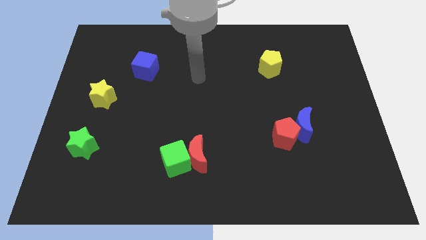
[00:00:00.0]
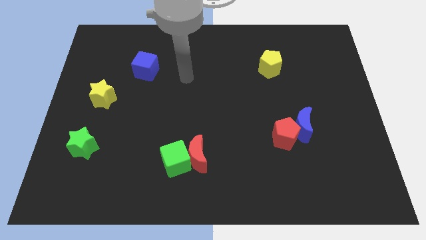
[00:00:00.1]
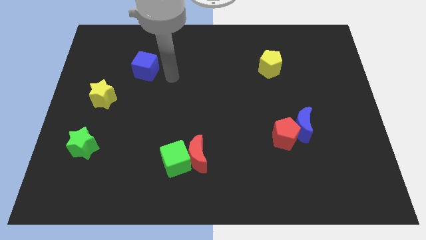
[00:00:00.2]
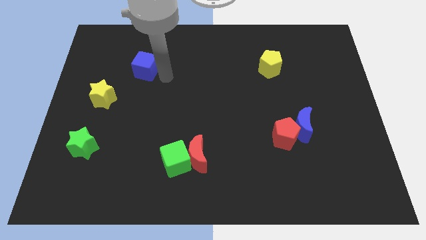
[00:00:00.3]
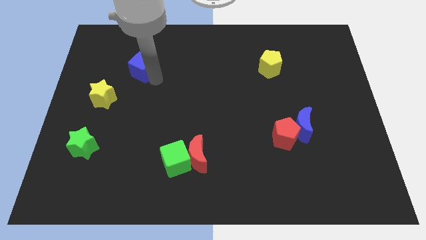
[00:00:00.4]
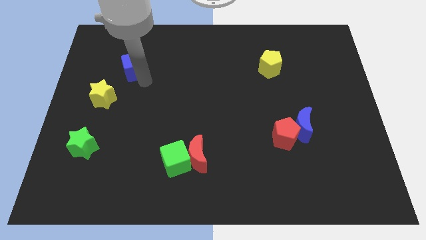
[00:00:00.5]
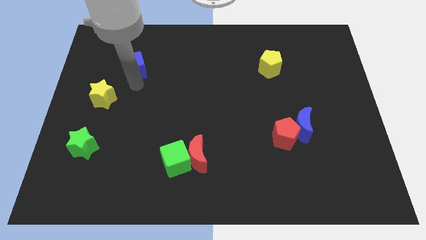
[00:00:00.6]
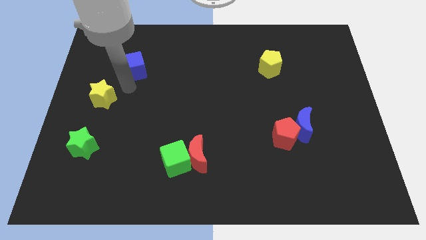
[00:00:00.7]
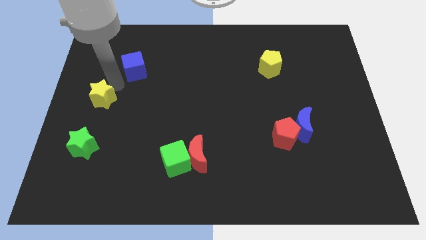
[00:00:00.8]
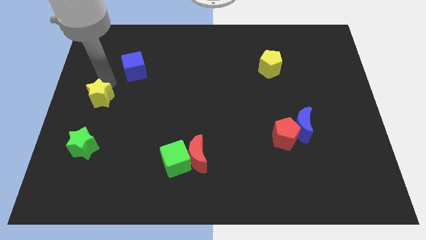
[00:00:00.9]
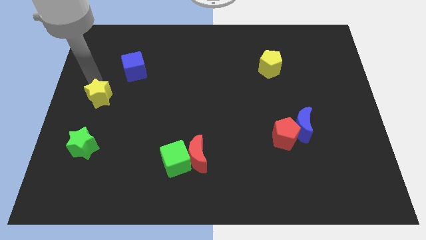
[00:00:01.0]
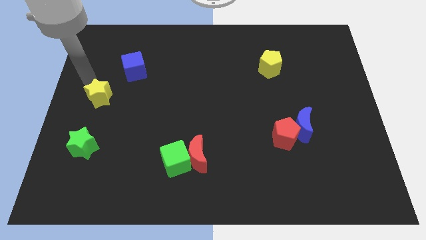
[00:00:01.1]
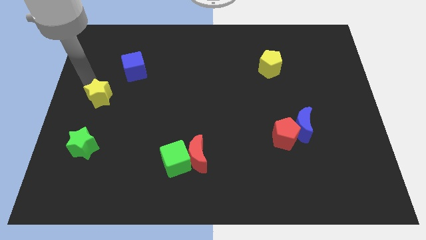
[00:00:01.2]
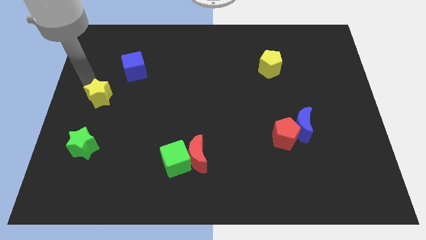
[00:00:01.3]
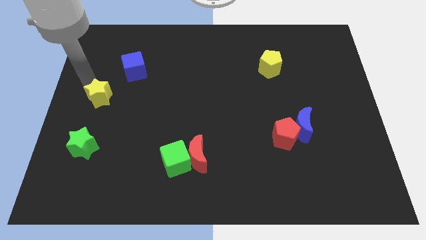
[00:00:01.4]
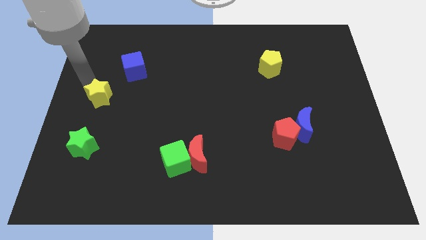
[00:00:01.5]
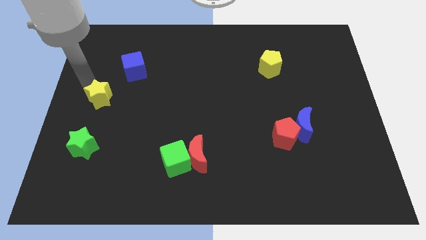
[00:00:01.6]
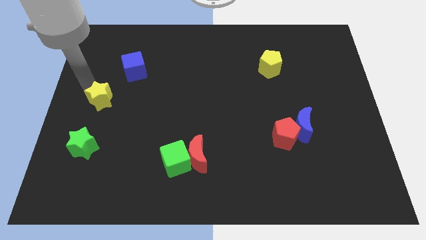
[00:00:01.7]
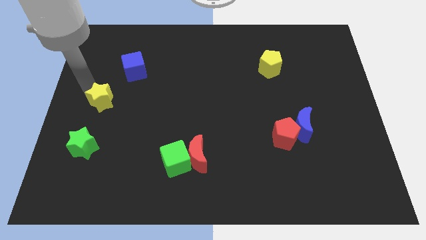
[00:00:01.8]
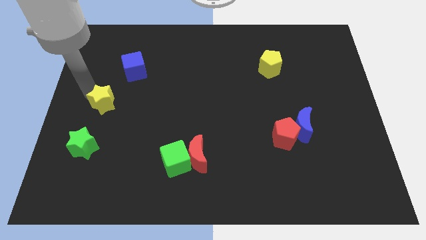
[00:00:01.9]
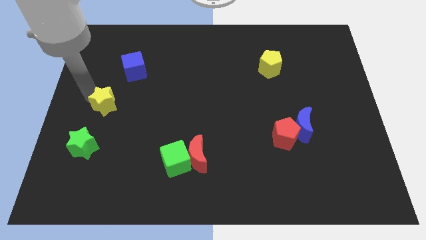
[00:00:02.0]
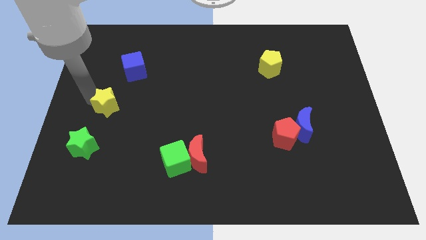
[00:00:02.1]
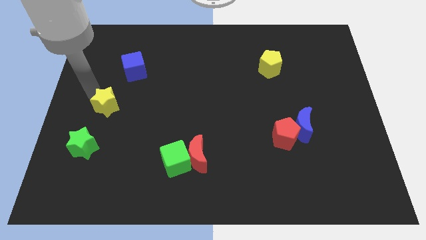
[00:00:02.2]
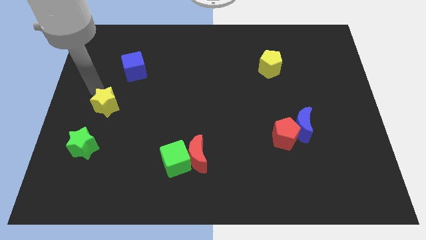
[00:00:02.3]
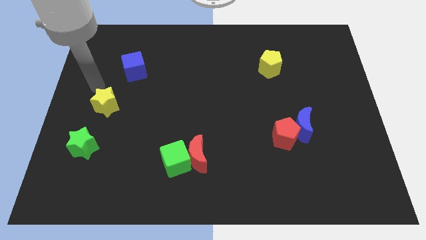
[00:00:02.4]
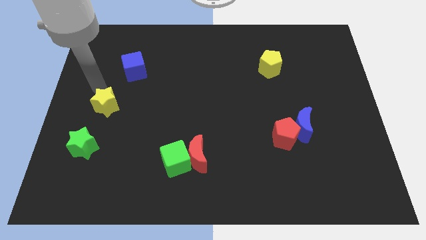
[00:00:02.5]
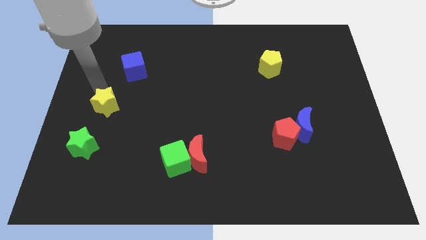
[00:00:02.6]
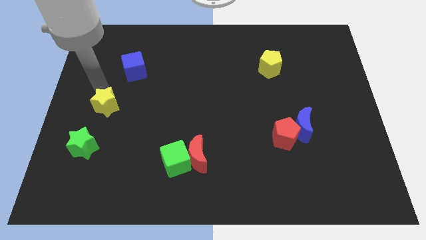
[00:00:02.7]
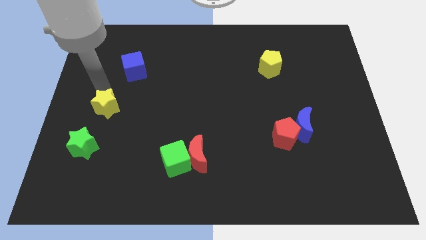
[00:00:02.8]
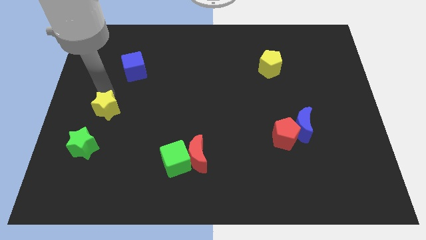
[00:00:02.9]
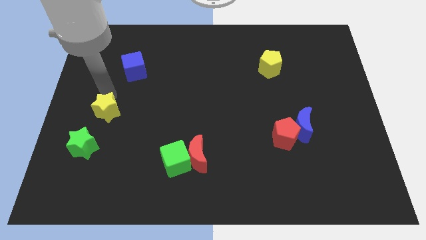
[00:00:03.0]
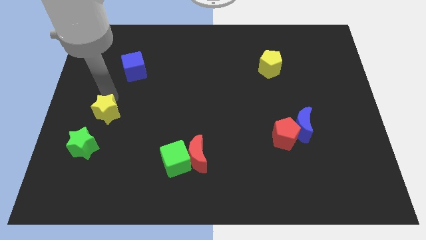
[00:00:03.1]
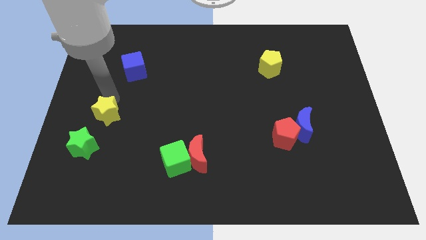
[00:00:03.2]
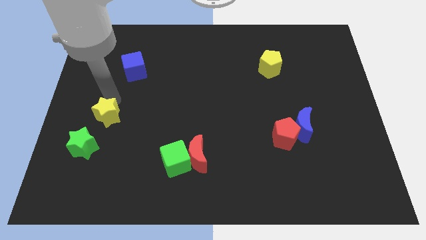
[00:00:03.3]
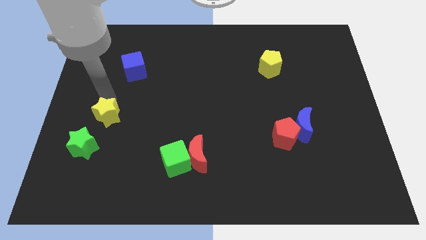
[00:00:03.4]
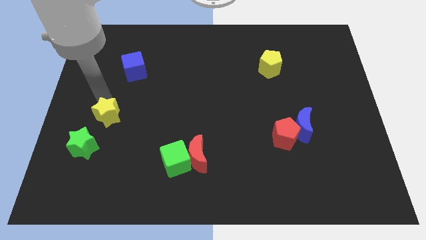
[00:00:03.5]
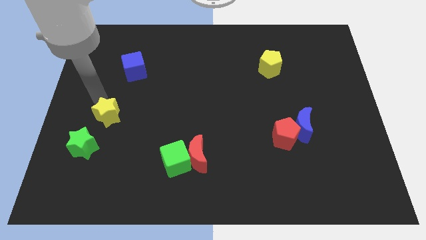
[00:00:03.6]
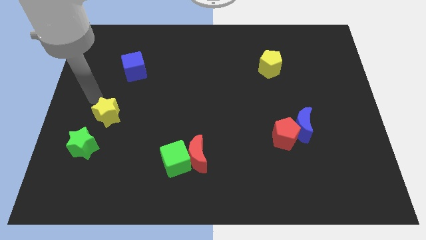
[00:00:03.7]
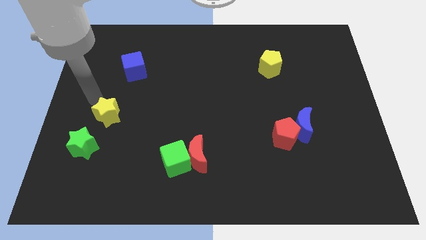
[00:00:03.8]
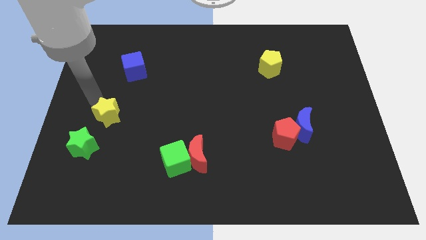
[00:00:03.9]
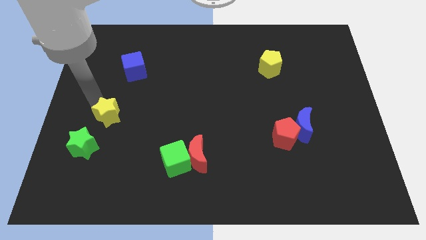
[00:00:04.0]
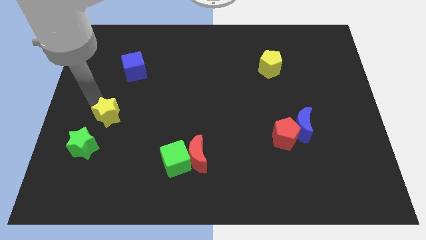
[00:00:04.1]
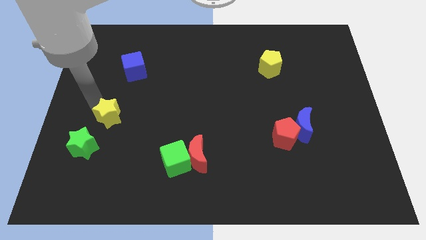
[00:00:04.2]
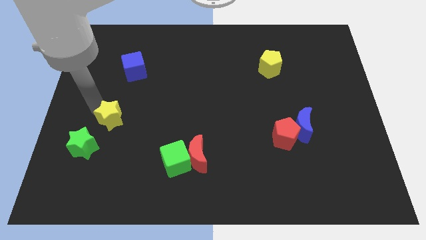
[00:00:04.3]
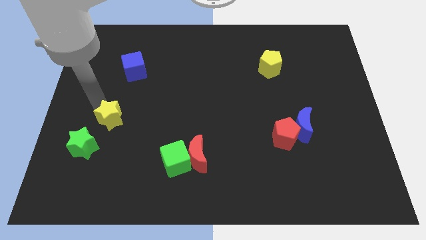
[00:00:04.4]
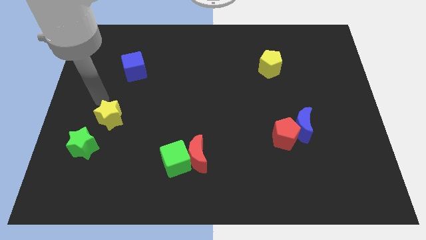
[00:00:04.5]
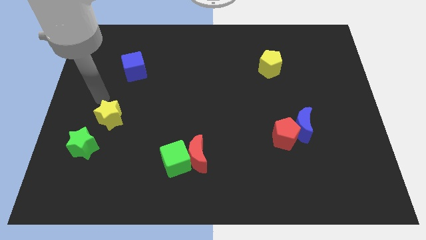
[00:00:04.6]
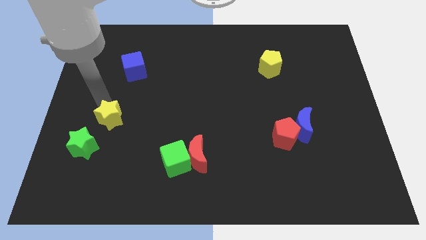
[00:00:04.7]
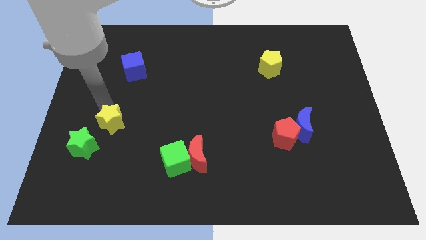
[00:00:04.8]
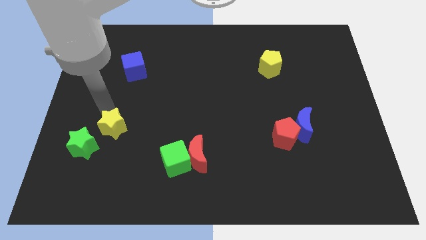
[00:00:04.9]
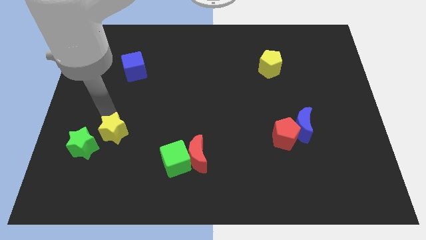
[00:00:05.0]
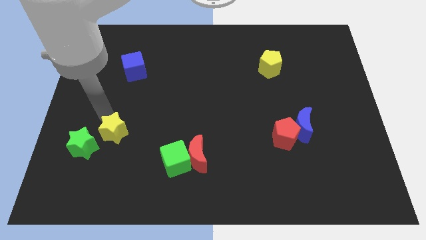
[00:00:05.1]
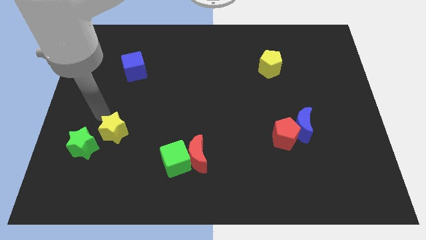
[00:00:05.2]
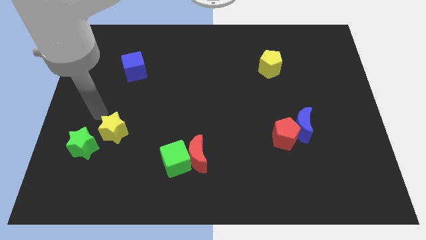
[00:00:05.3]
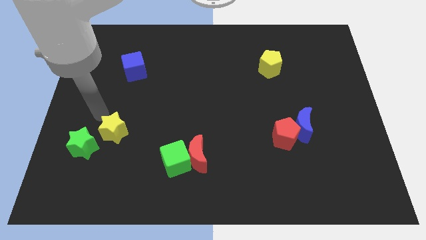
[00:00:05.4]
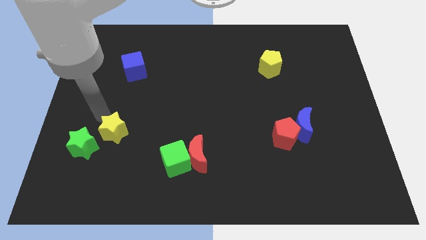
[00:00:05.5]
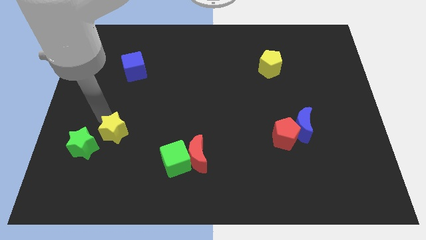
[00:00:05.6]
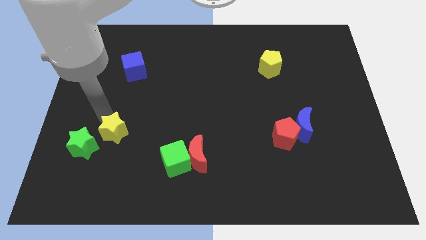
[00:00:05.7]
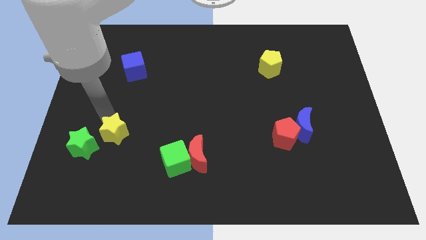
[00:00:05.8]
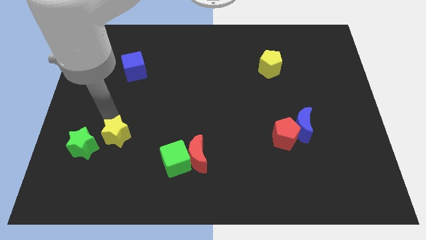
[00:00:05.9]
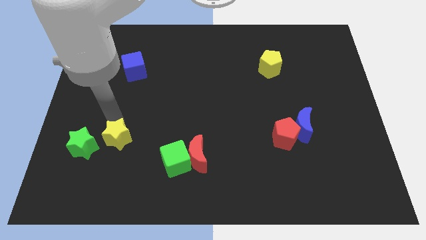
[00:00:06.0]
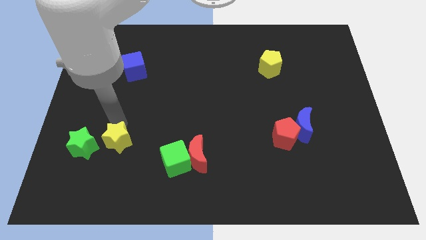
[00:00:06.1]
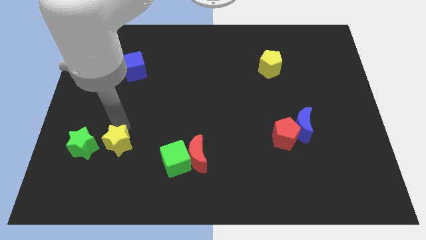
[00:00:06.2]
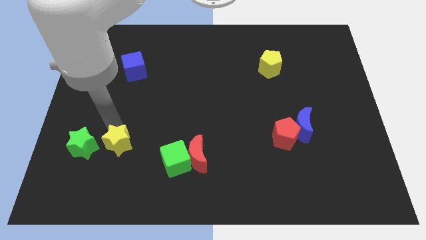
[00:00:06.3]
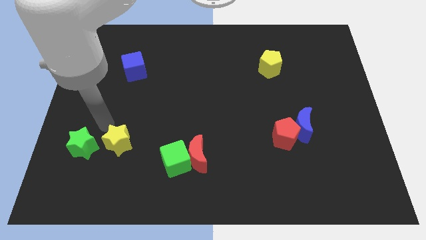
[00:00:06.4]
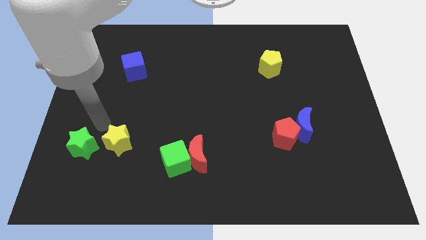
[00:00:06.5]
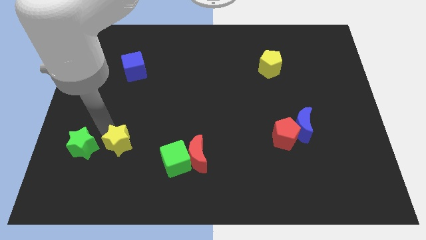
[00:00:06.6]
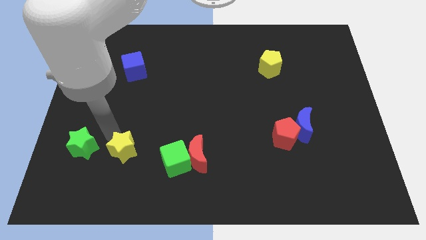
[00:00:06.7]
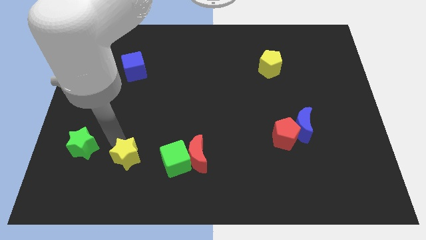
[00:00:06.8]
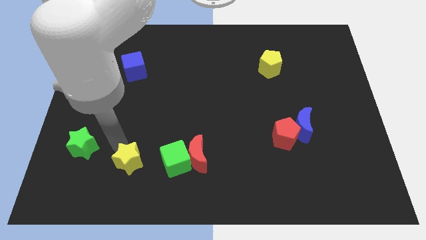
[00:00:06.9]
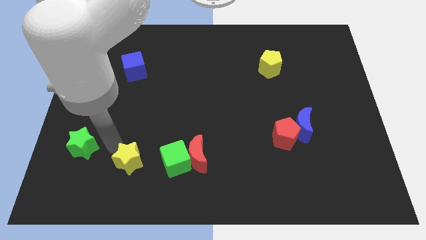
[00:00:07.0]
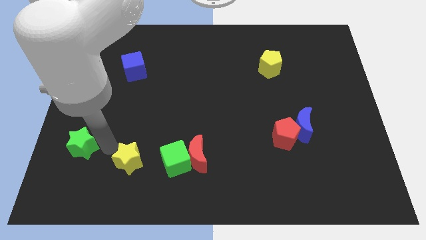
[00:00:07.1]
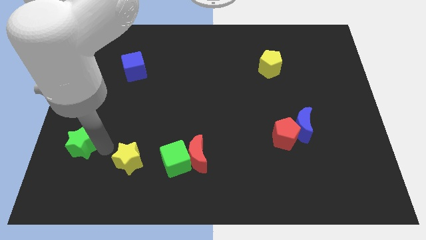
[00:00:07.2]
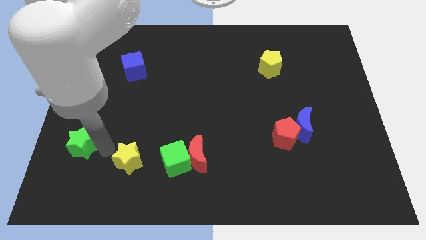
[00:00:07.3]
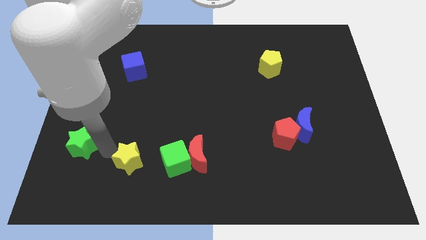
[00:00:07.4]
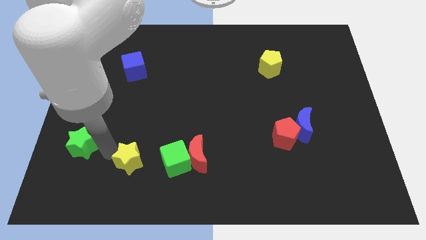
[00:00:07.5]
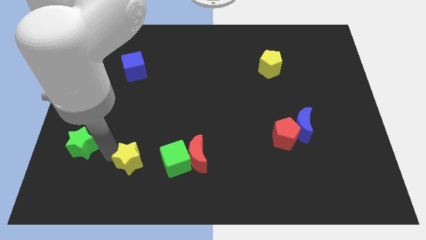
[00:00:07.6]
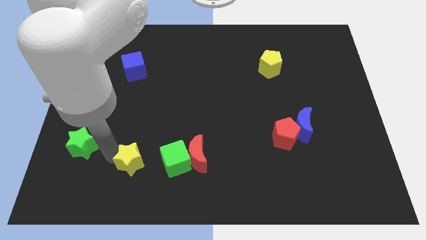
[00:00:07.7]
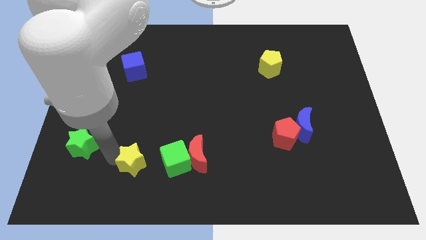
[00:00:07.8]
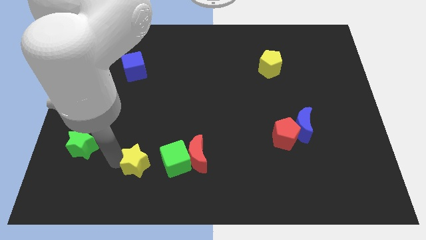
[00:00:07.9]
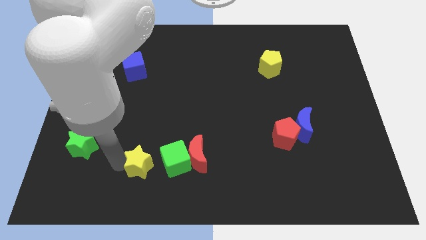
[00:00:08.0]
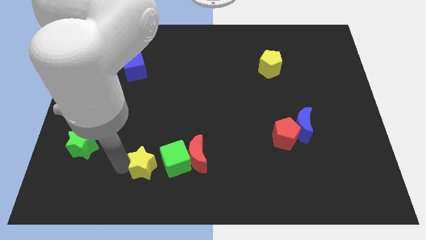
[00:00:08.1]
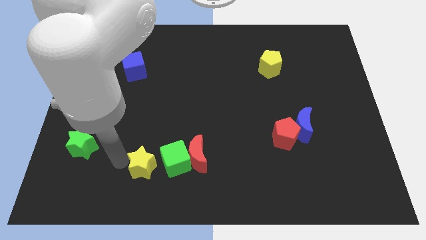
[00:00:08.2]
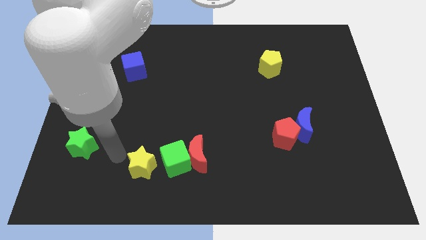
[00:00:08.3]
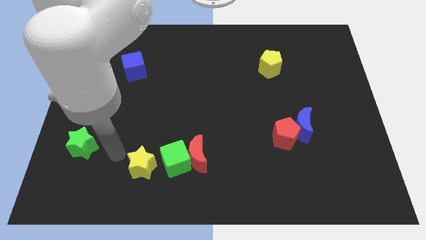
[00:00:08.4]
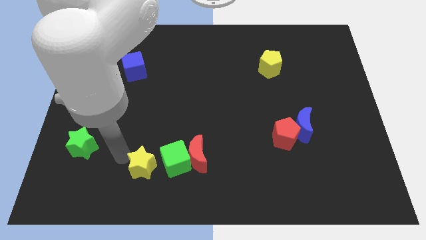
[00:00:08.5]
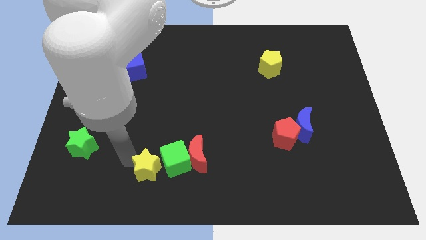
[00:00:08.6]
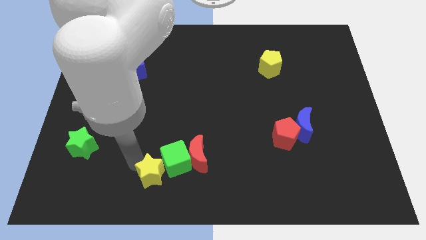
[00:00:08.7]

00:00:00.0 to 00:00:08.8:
move the yellow star to the bottom left of the red moon
